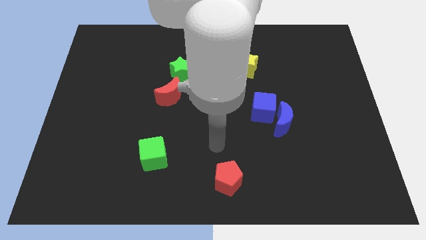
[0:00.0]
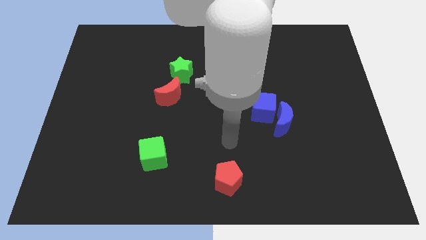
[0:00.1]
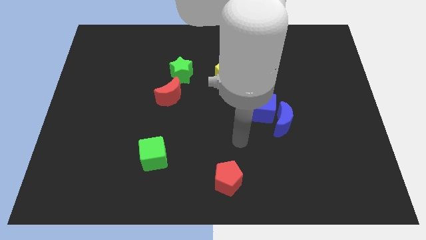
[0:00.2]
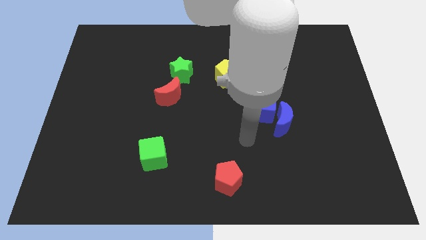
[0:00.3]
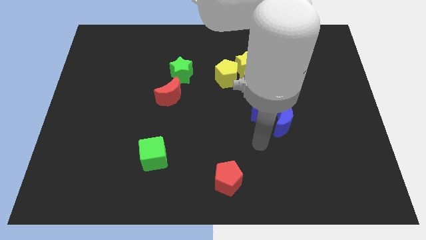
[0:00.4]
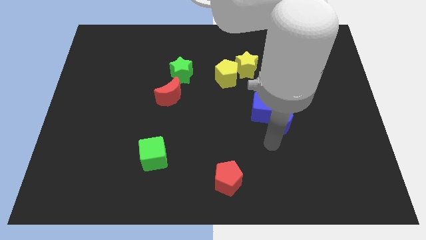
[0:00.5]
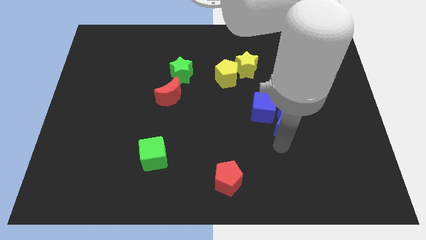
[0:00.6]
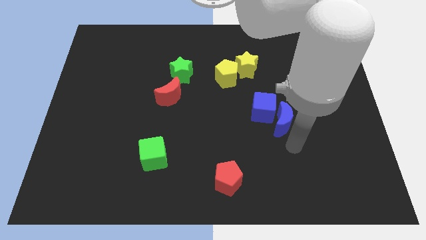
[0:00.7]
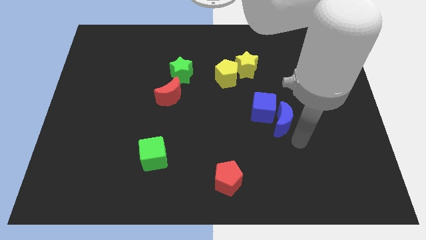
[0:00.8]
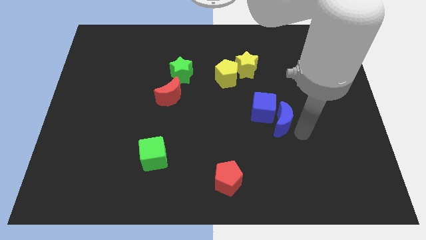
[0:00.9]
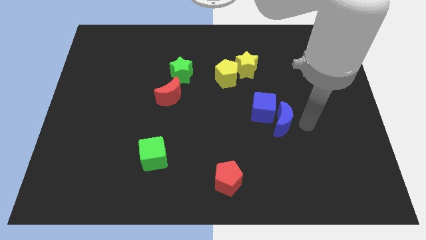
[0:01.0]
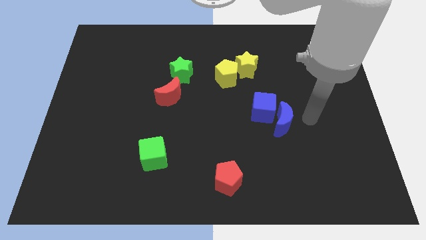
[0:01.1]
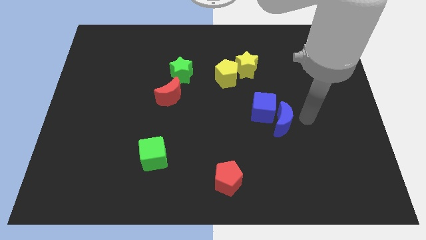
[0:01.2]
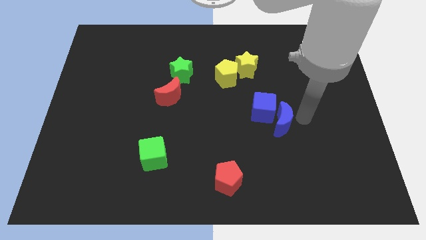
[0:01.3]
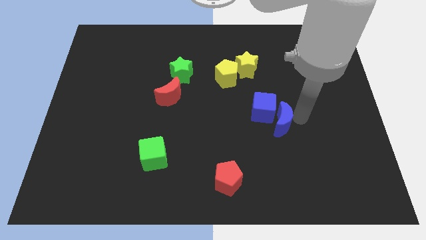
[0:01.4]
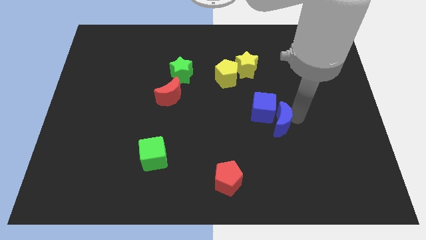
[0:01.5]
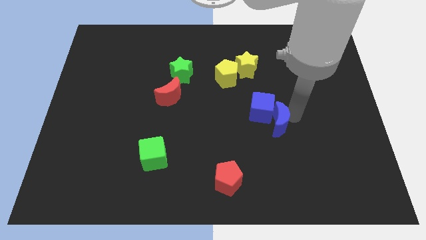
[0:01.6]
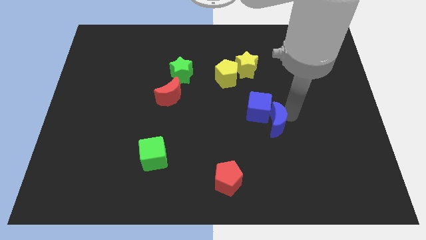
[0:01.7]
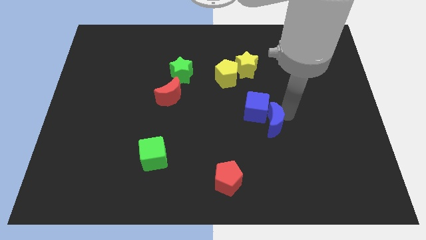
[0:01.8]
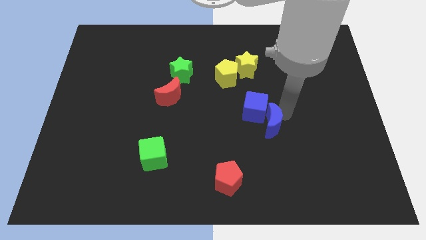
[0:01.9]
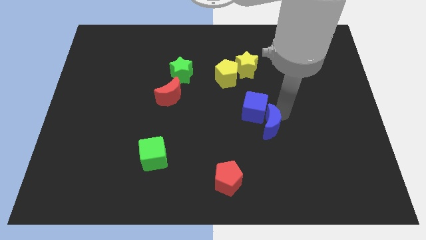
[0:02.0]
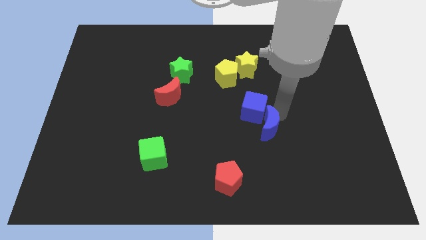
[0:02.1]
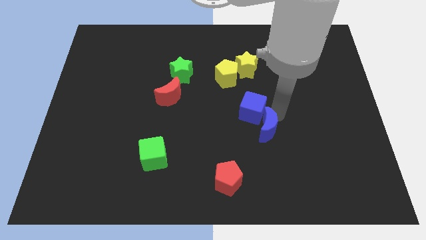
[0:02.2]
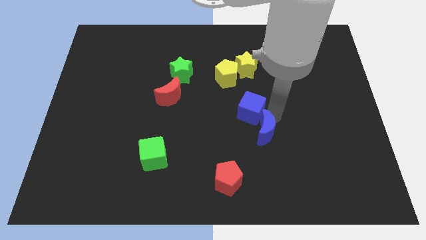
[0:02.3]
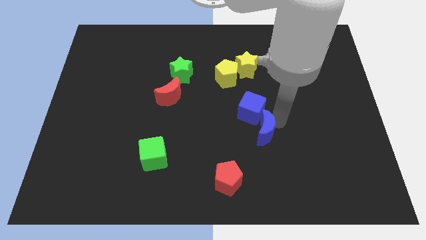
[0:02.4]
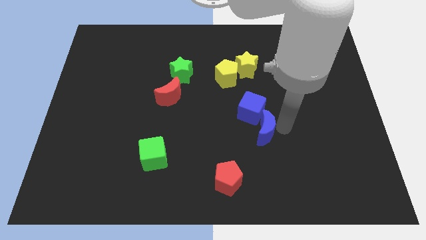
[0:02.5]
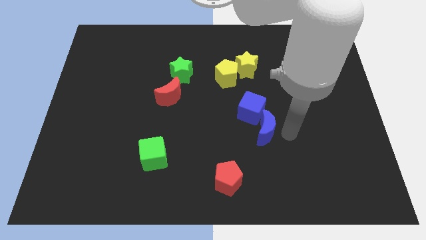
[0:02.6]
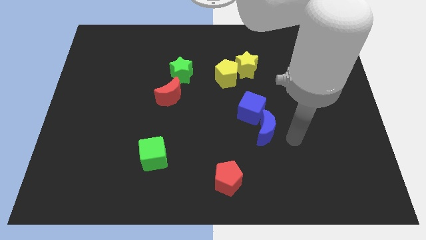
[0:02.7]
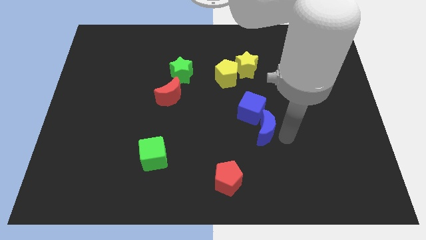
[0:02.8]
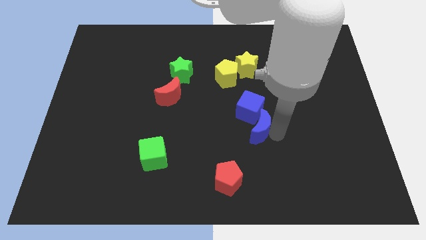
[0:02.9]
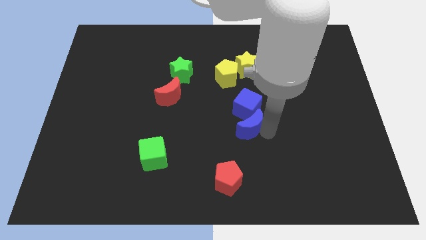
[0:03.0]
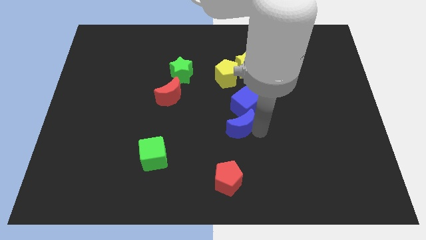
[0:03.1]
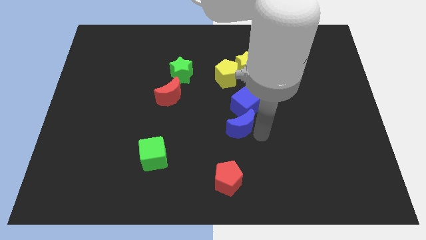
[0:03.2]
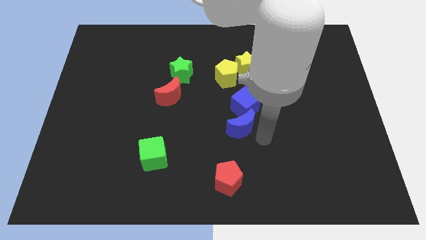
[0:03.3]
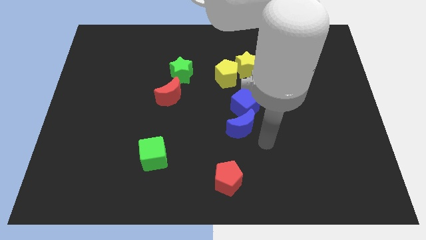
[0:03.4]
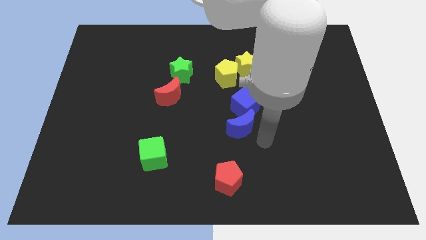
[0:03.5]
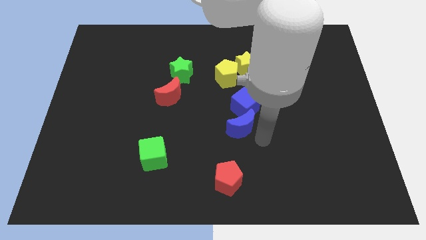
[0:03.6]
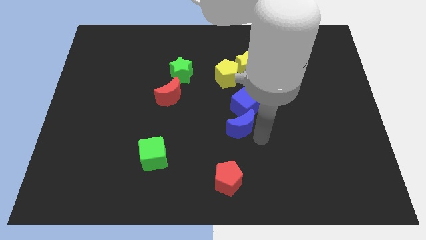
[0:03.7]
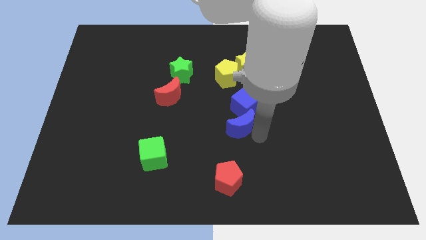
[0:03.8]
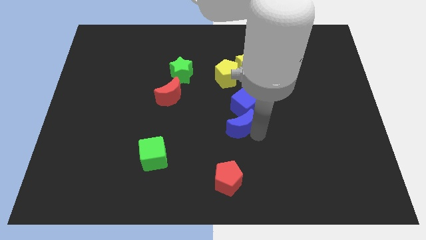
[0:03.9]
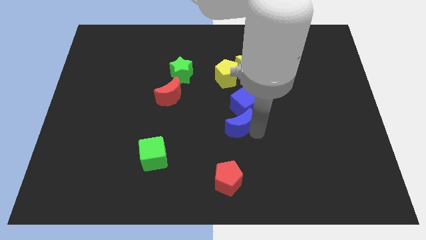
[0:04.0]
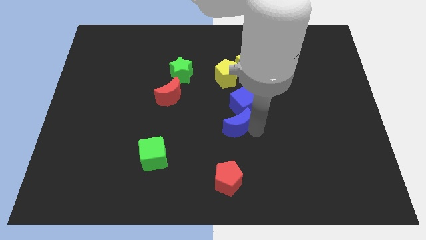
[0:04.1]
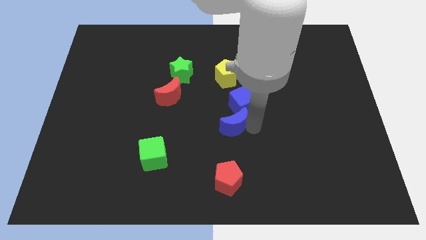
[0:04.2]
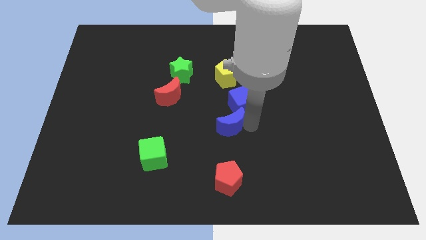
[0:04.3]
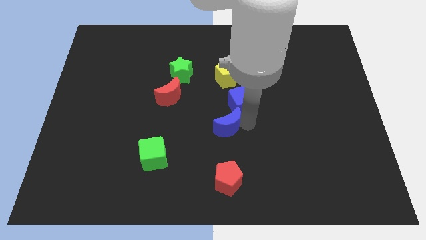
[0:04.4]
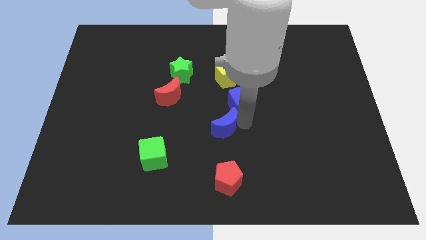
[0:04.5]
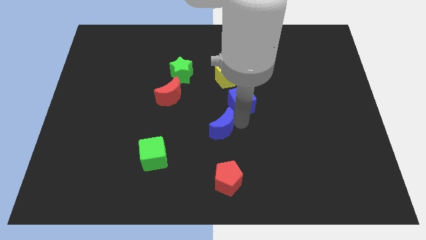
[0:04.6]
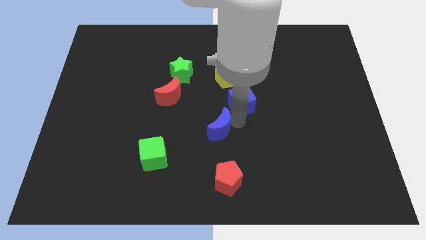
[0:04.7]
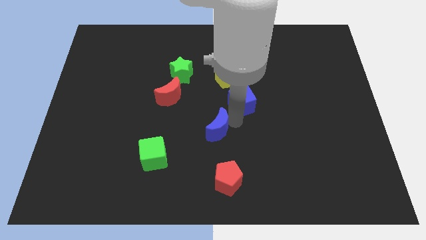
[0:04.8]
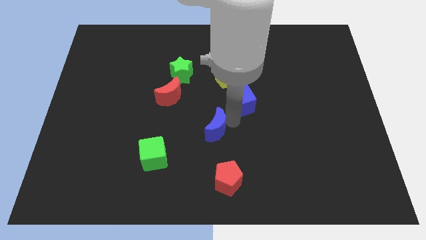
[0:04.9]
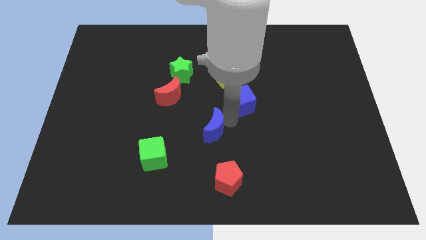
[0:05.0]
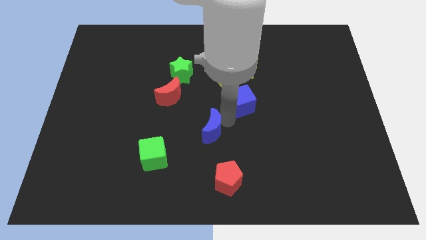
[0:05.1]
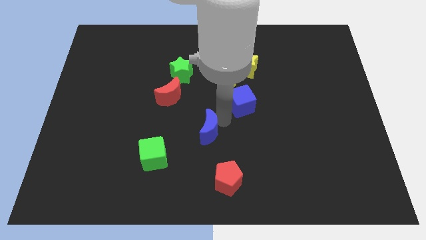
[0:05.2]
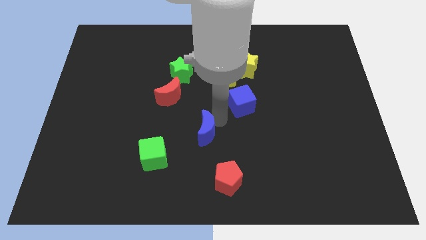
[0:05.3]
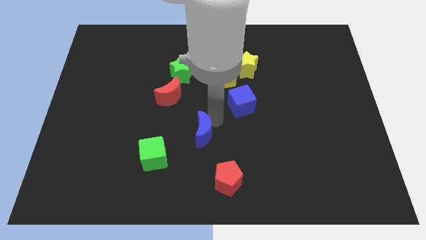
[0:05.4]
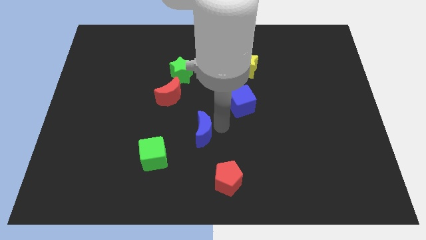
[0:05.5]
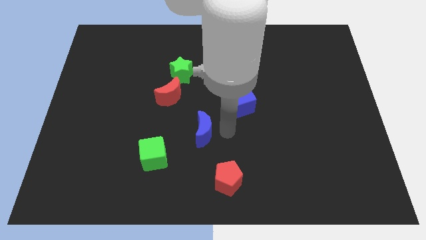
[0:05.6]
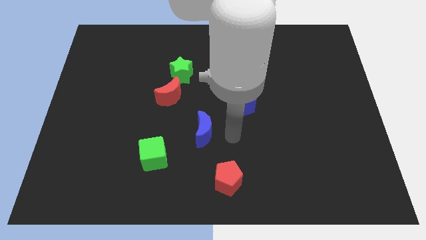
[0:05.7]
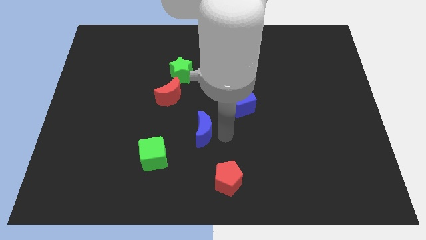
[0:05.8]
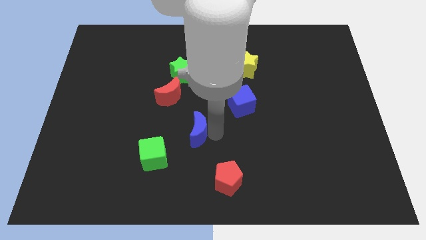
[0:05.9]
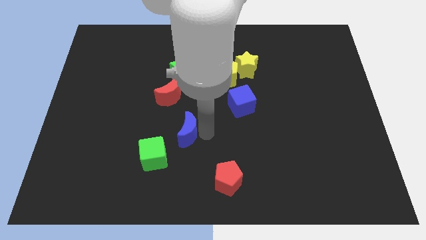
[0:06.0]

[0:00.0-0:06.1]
slide the blue moon to the left

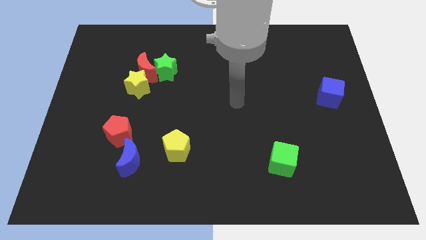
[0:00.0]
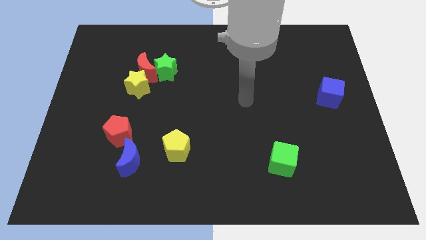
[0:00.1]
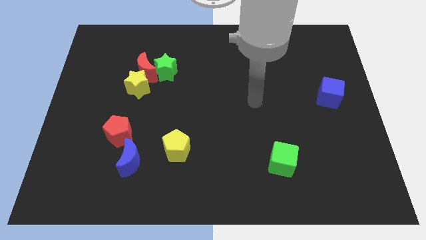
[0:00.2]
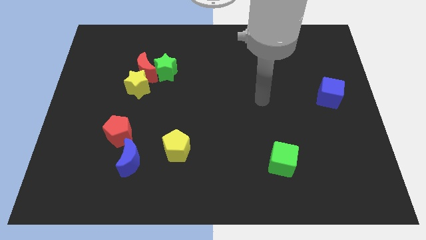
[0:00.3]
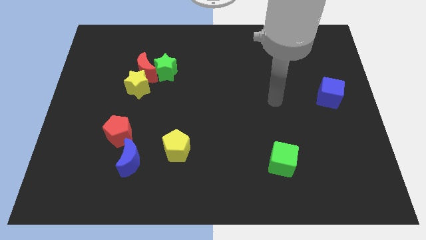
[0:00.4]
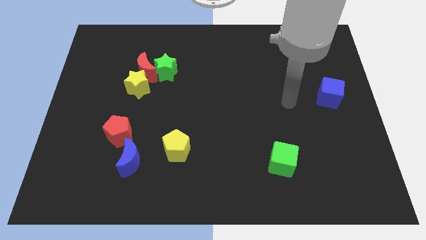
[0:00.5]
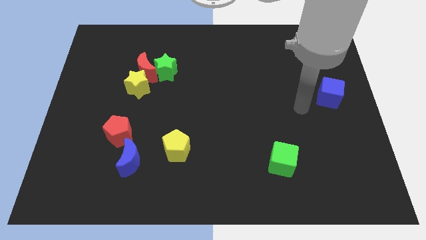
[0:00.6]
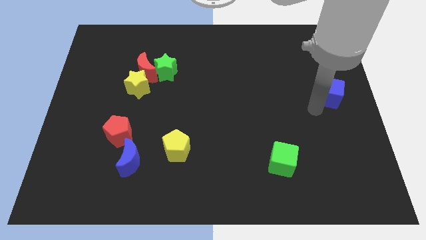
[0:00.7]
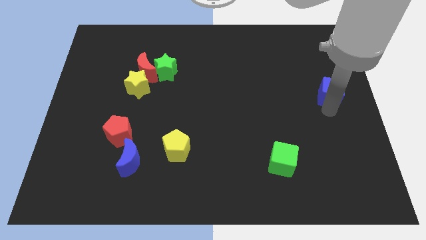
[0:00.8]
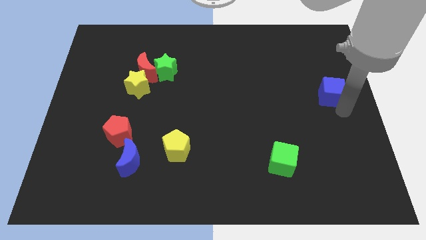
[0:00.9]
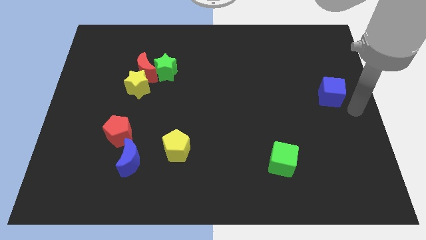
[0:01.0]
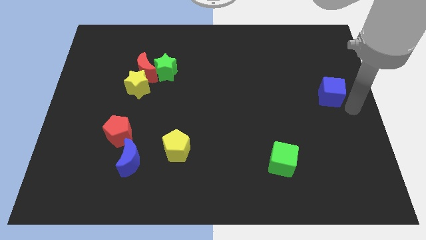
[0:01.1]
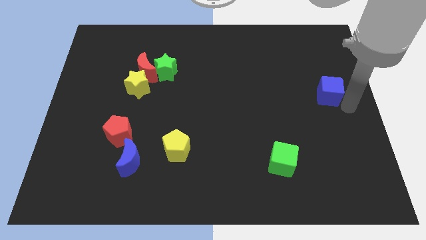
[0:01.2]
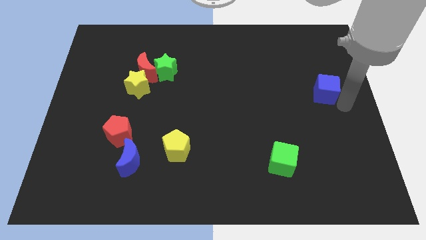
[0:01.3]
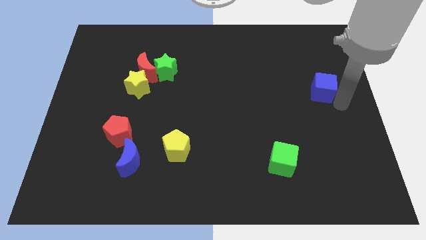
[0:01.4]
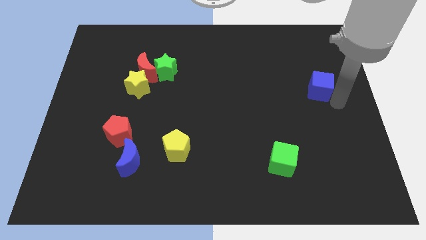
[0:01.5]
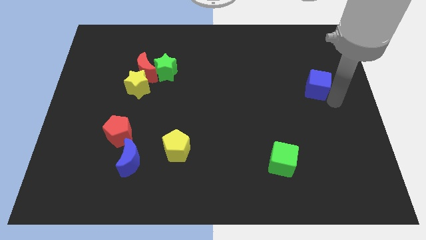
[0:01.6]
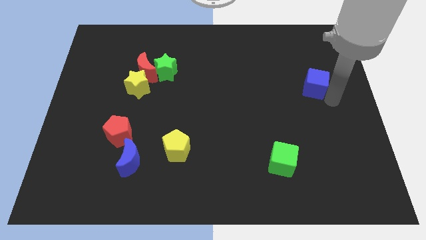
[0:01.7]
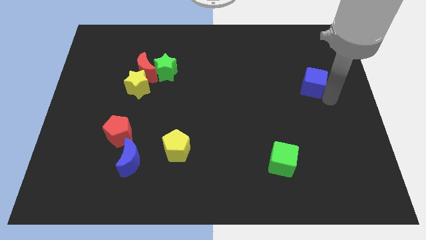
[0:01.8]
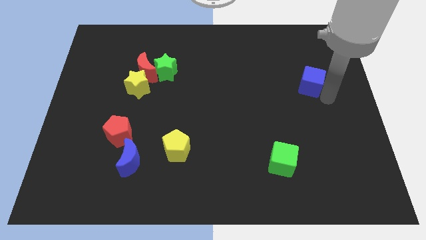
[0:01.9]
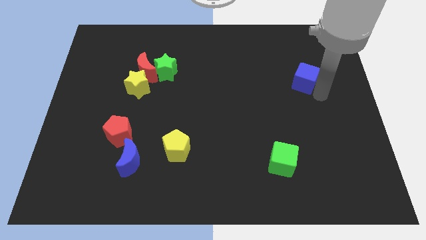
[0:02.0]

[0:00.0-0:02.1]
move the blue cube slightly up and to the left diagonally

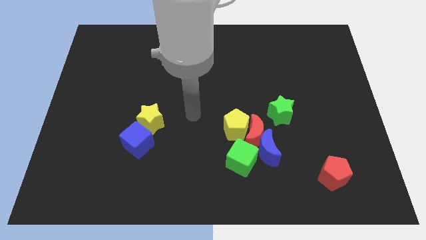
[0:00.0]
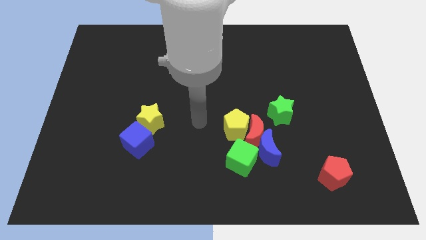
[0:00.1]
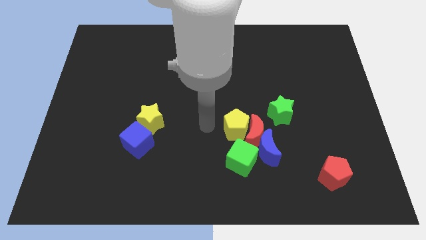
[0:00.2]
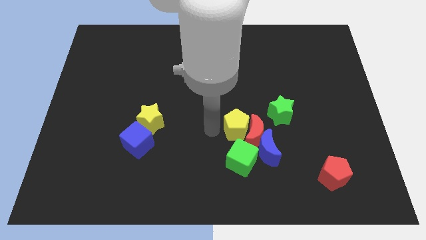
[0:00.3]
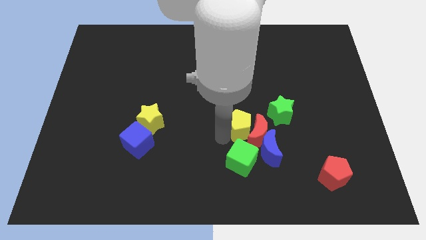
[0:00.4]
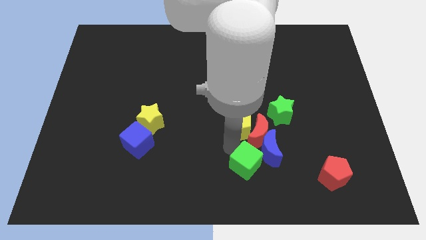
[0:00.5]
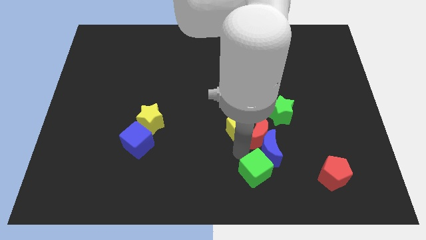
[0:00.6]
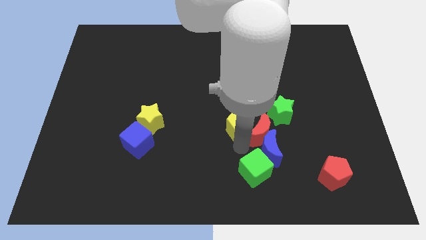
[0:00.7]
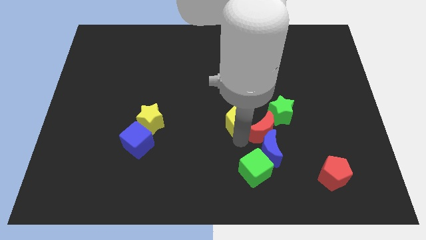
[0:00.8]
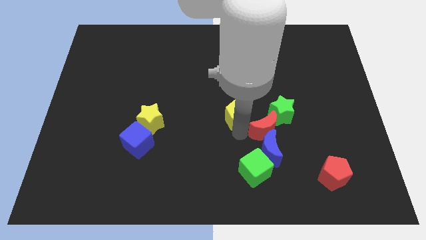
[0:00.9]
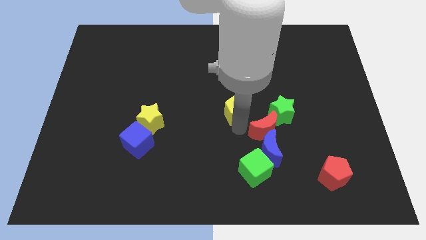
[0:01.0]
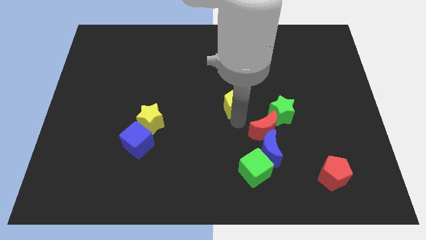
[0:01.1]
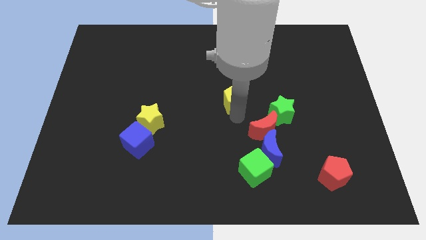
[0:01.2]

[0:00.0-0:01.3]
slightly push the yellow pentagon up
